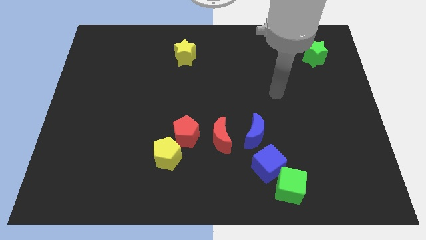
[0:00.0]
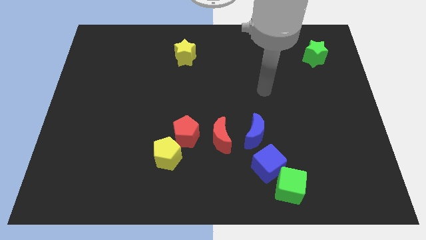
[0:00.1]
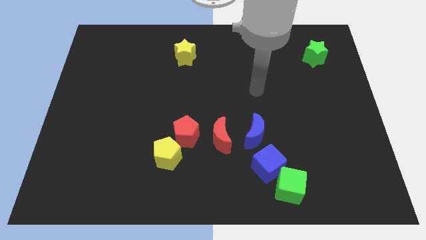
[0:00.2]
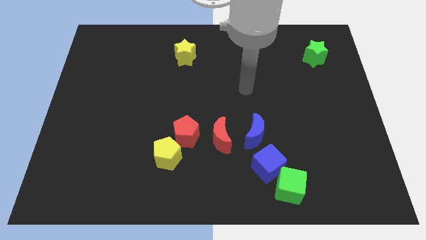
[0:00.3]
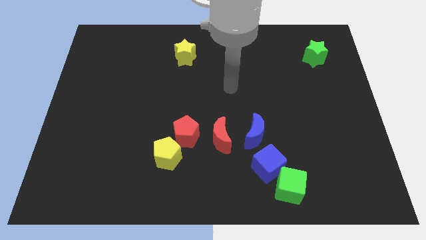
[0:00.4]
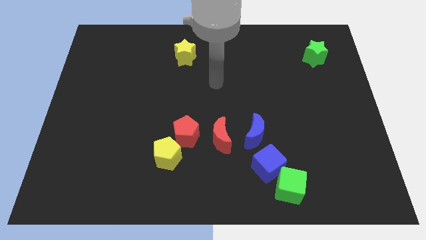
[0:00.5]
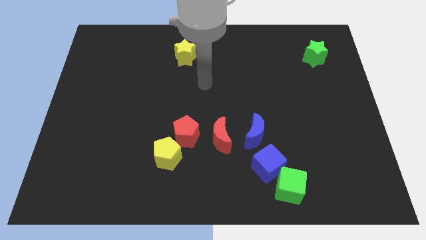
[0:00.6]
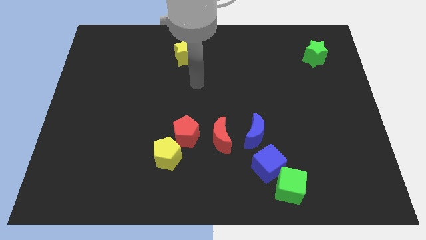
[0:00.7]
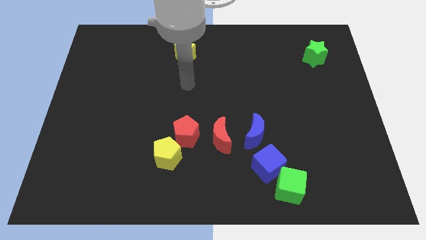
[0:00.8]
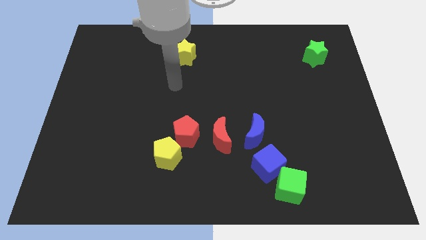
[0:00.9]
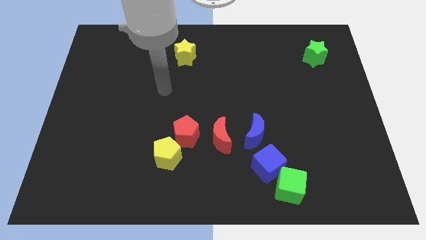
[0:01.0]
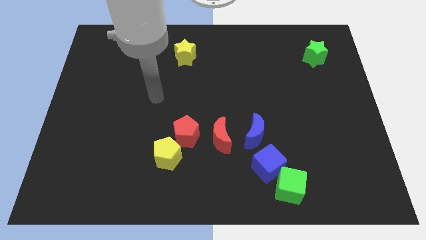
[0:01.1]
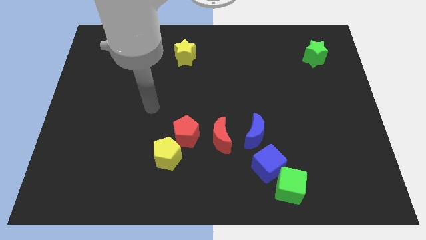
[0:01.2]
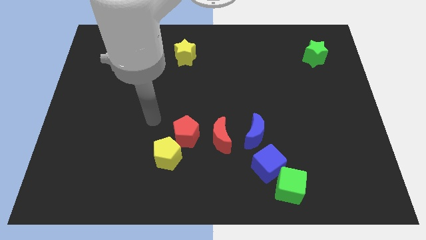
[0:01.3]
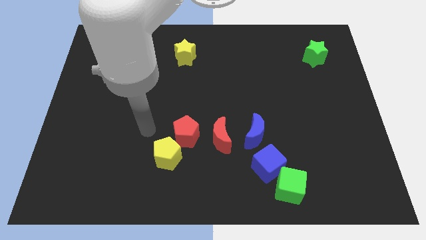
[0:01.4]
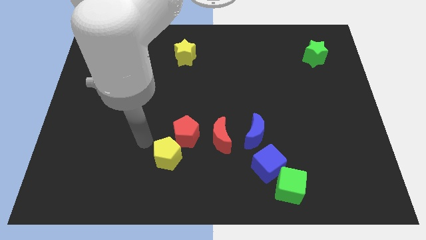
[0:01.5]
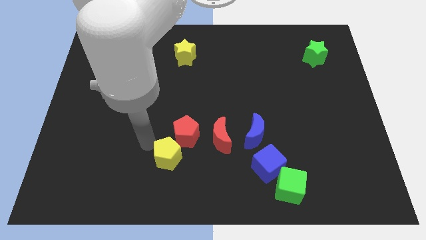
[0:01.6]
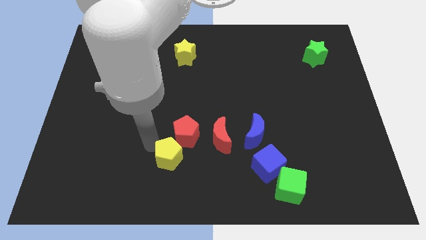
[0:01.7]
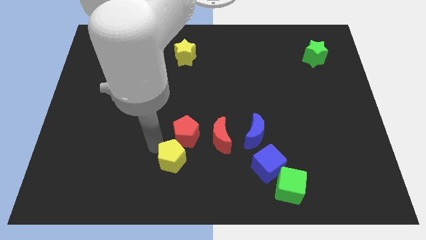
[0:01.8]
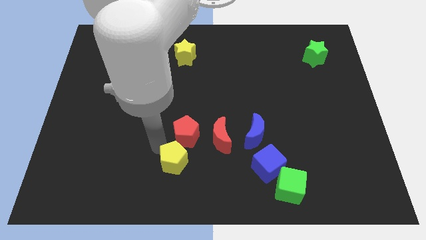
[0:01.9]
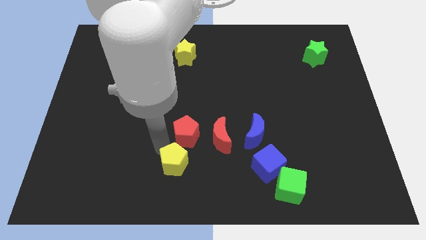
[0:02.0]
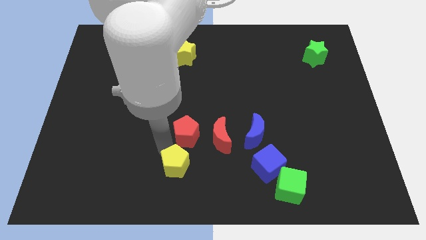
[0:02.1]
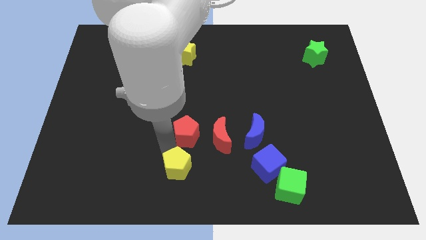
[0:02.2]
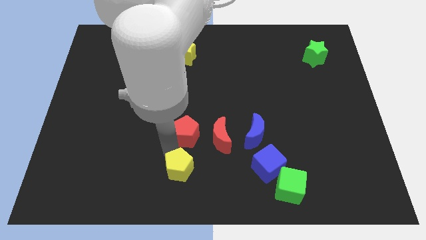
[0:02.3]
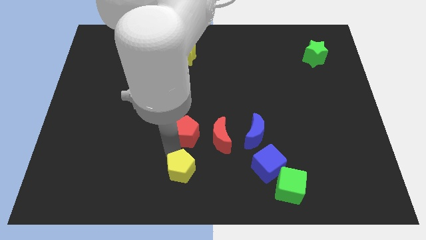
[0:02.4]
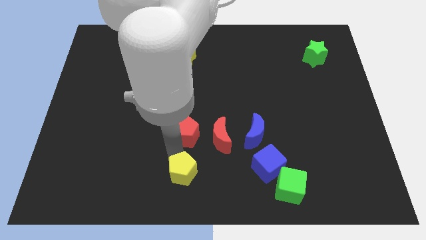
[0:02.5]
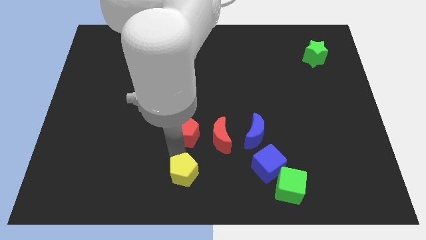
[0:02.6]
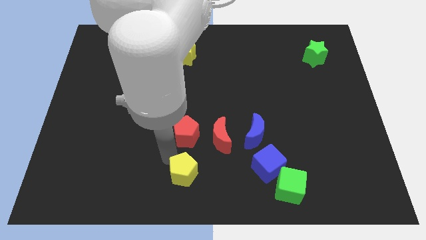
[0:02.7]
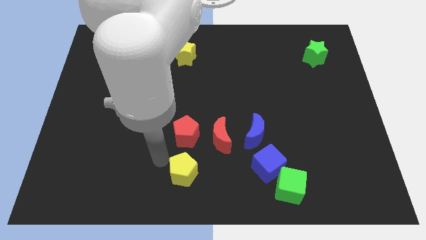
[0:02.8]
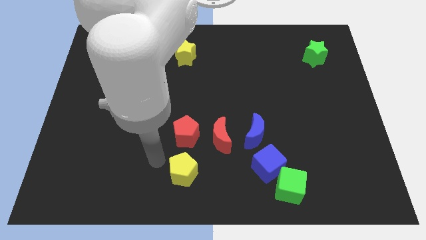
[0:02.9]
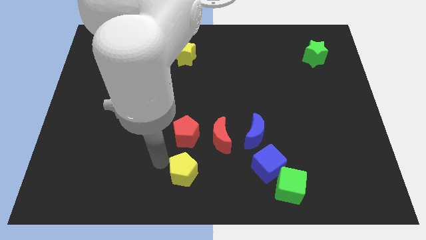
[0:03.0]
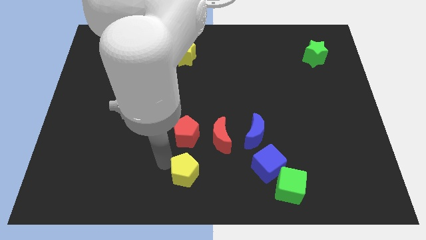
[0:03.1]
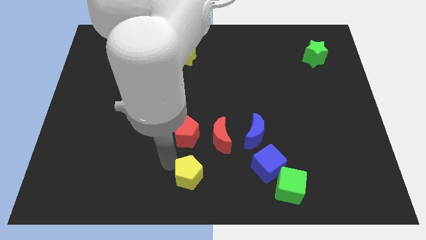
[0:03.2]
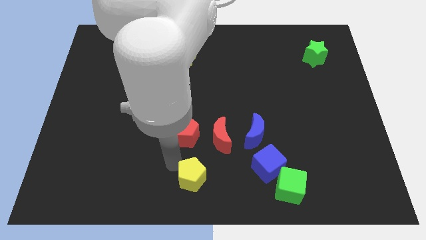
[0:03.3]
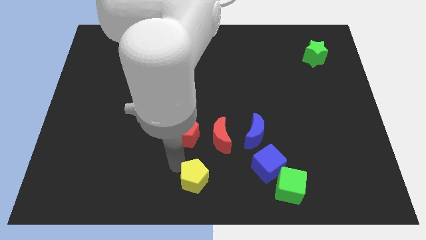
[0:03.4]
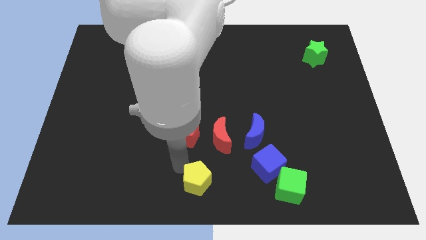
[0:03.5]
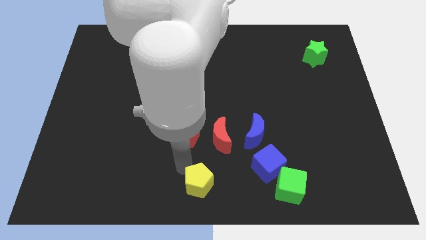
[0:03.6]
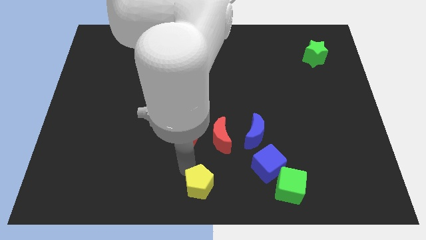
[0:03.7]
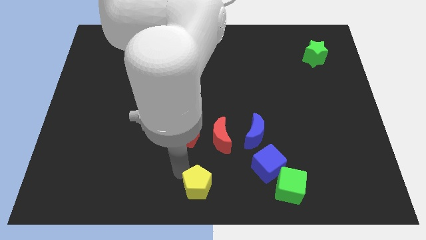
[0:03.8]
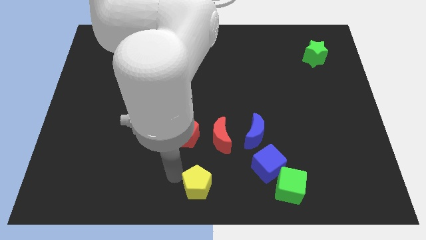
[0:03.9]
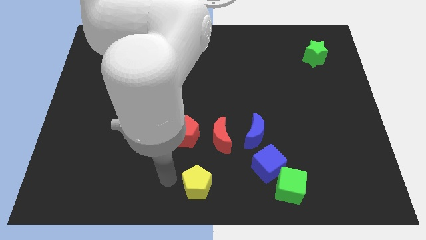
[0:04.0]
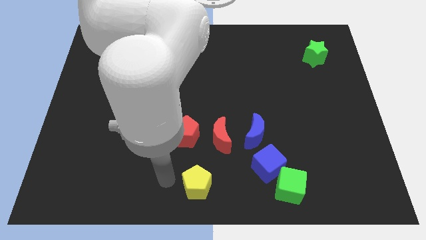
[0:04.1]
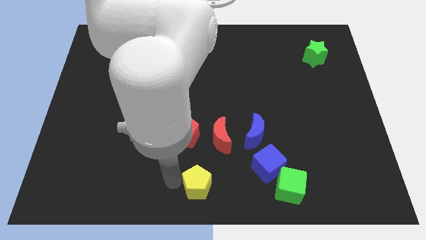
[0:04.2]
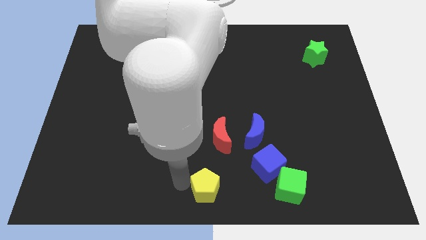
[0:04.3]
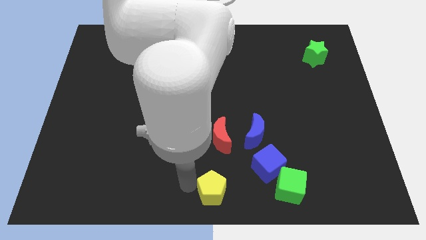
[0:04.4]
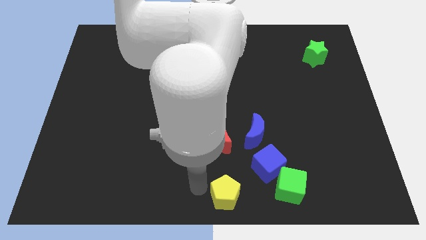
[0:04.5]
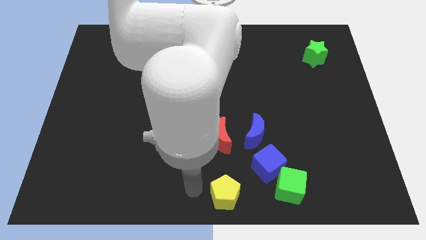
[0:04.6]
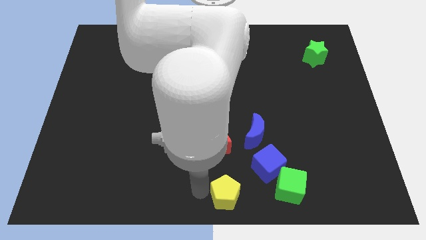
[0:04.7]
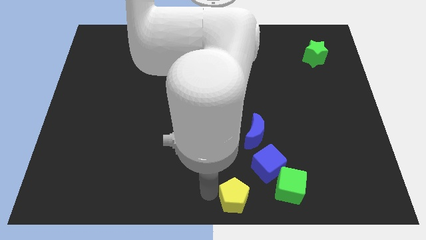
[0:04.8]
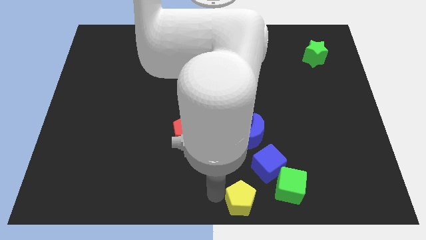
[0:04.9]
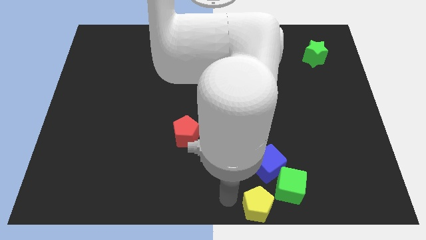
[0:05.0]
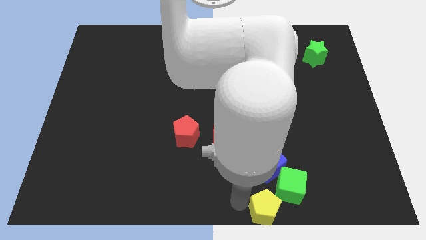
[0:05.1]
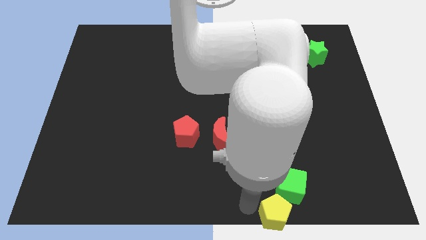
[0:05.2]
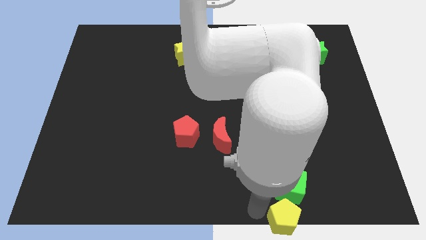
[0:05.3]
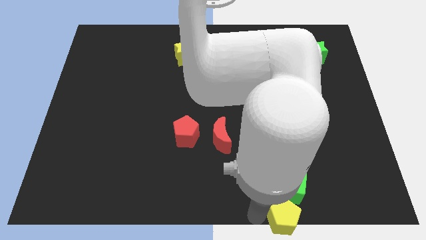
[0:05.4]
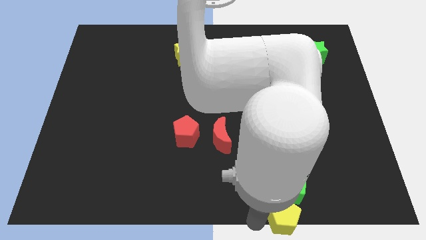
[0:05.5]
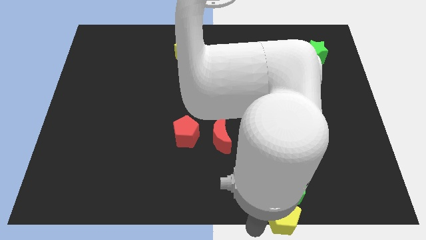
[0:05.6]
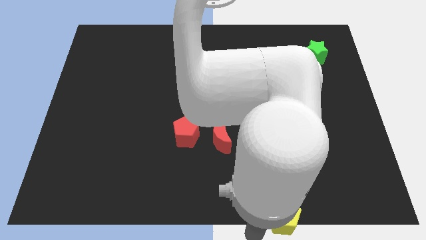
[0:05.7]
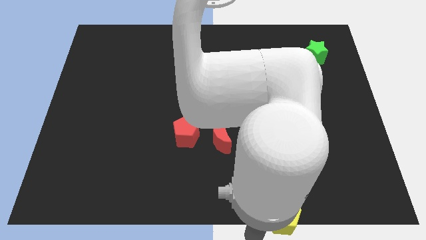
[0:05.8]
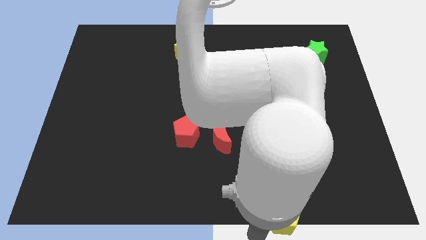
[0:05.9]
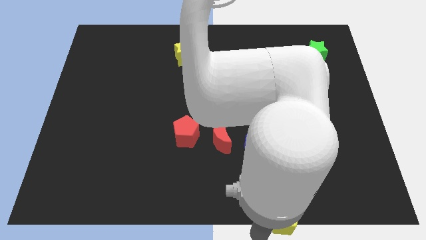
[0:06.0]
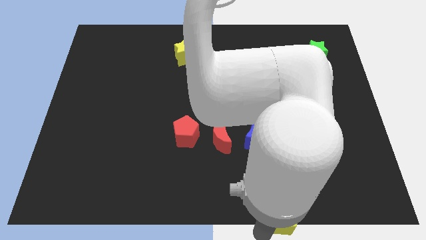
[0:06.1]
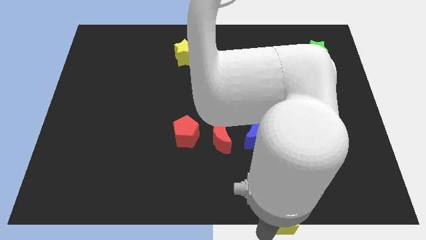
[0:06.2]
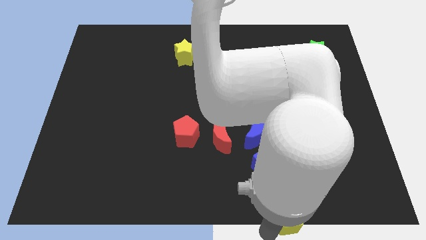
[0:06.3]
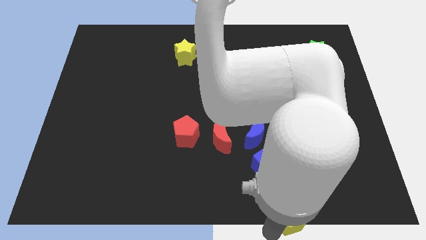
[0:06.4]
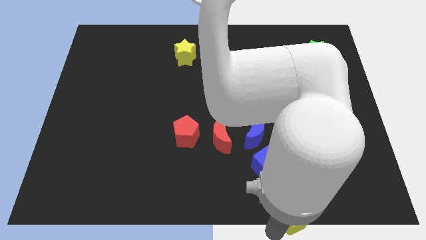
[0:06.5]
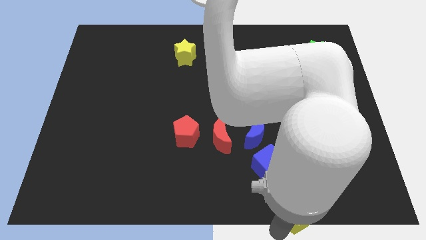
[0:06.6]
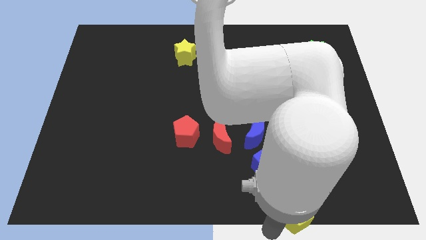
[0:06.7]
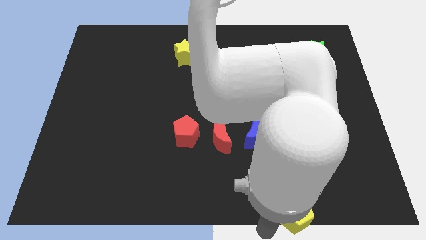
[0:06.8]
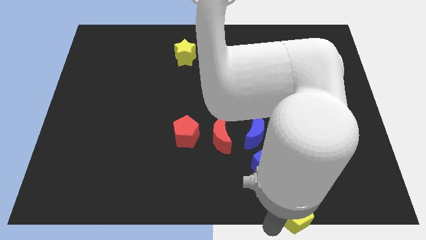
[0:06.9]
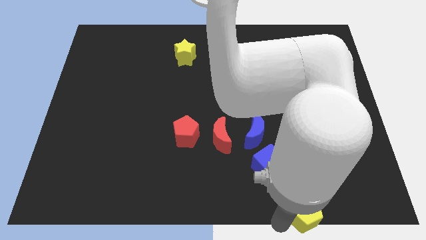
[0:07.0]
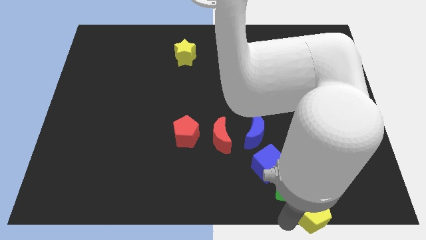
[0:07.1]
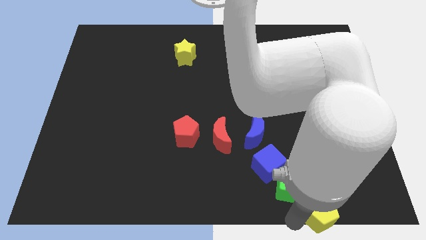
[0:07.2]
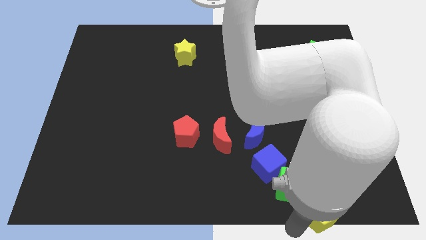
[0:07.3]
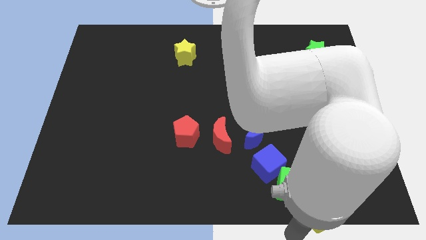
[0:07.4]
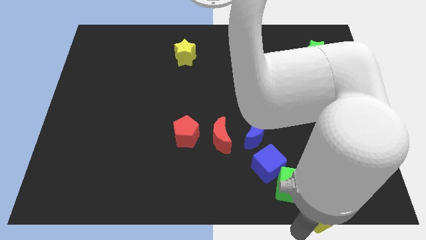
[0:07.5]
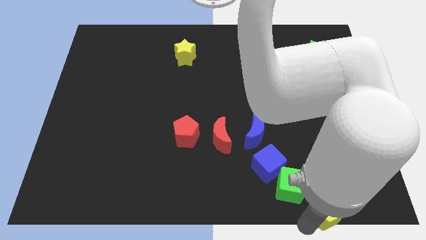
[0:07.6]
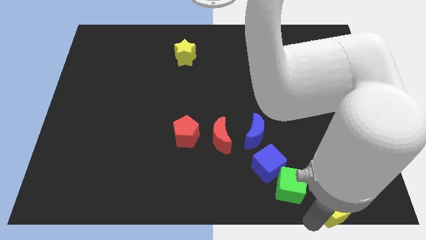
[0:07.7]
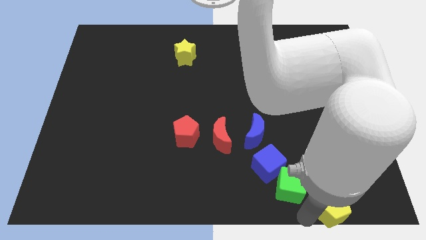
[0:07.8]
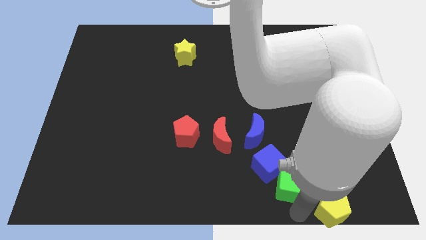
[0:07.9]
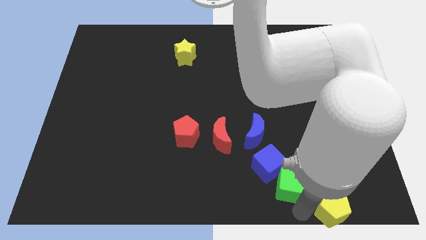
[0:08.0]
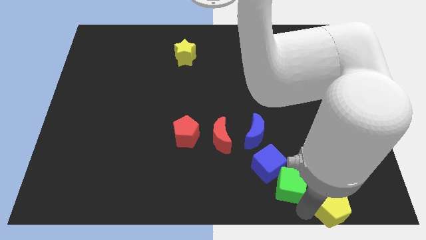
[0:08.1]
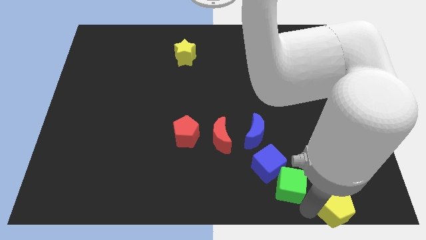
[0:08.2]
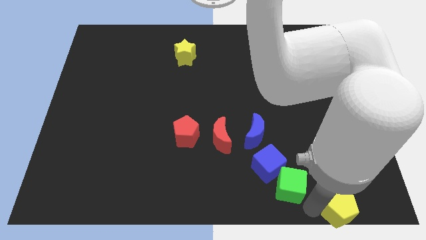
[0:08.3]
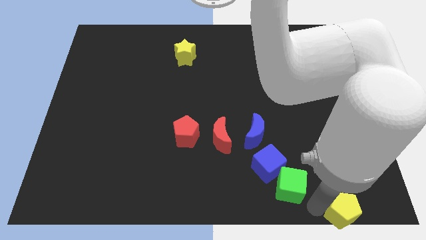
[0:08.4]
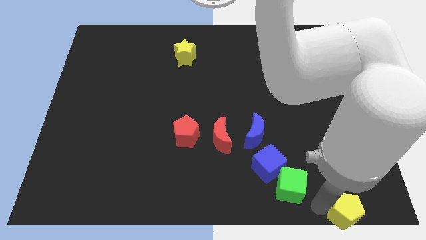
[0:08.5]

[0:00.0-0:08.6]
move the yellow pentagon to the lower right corner
